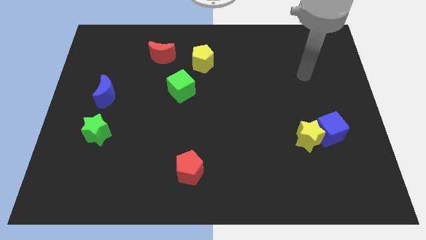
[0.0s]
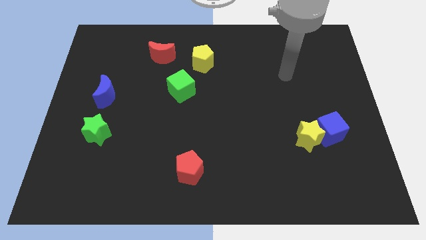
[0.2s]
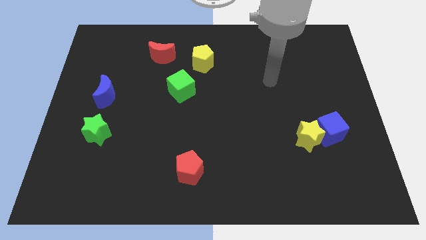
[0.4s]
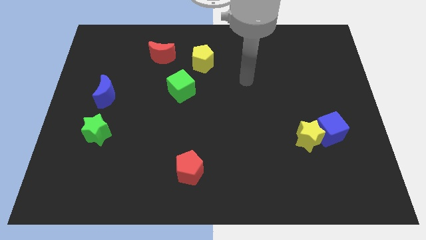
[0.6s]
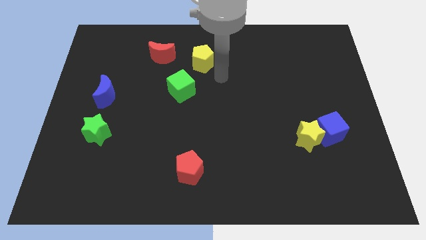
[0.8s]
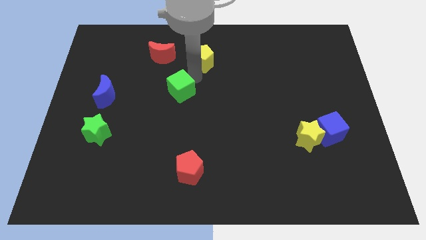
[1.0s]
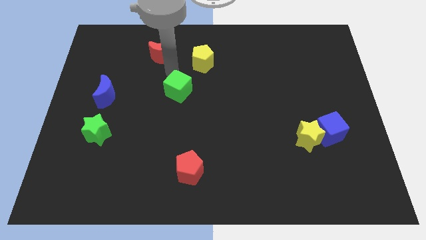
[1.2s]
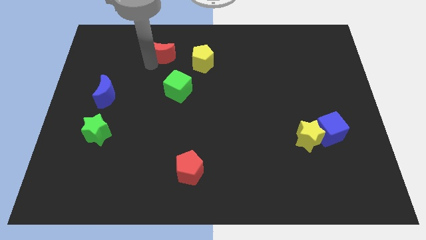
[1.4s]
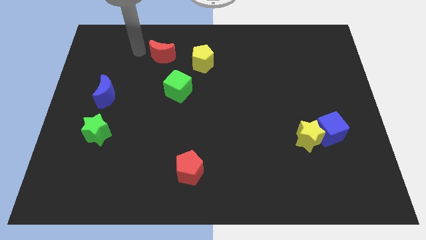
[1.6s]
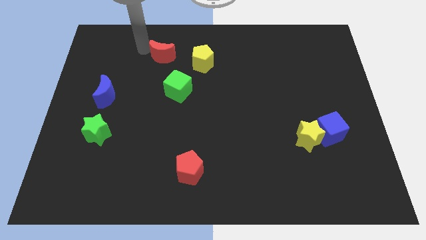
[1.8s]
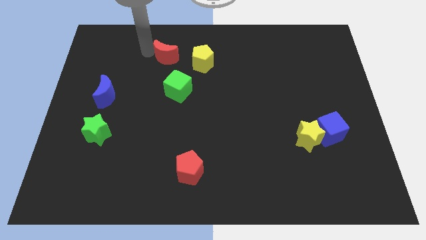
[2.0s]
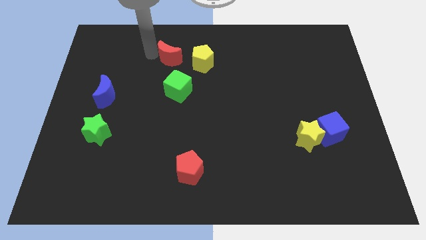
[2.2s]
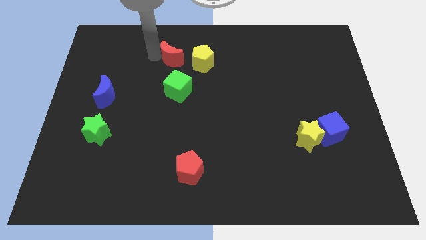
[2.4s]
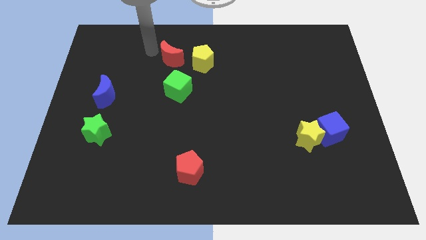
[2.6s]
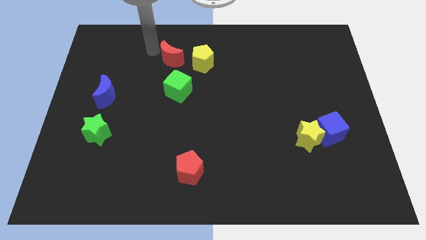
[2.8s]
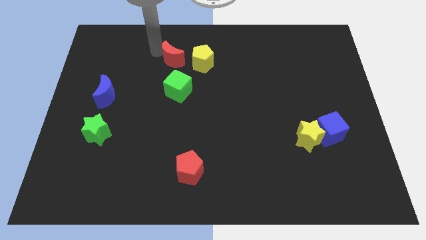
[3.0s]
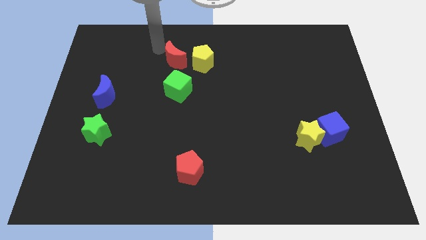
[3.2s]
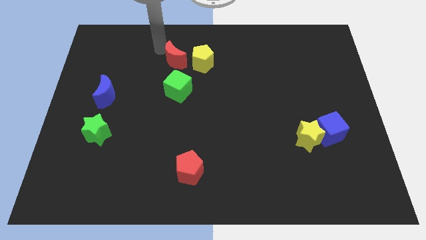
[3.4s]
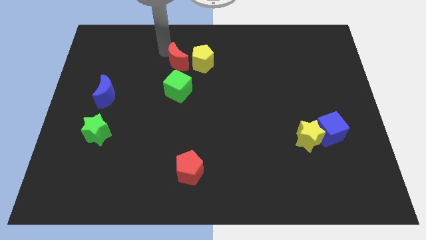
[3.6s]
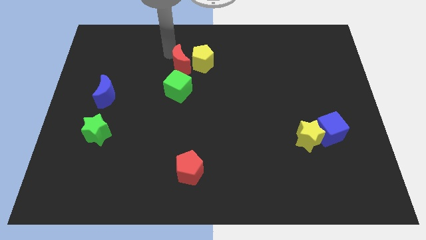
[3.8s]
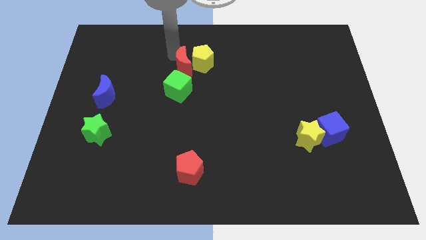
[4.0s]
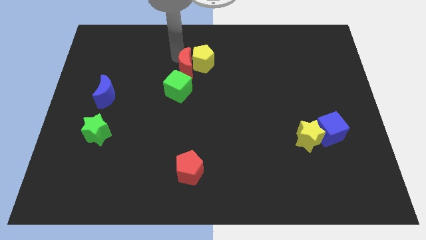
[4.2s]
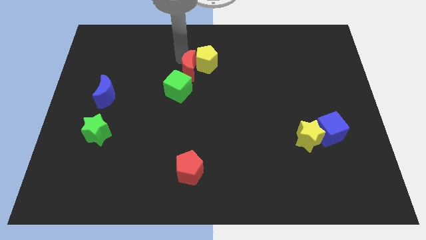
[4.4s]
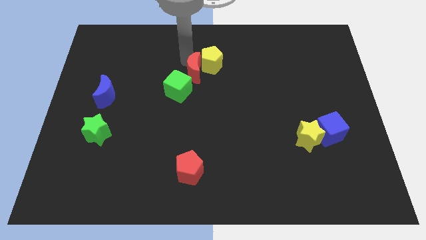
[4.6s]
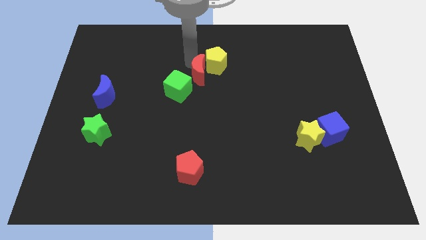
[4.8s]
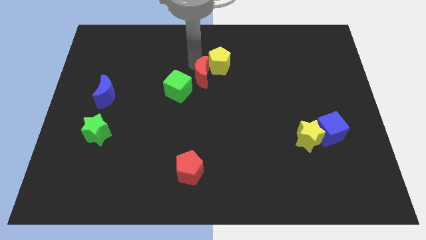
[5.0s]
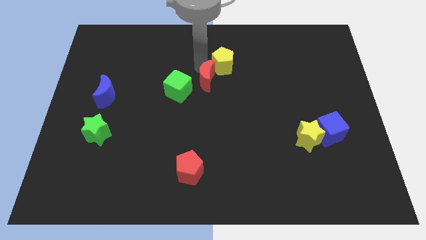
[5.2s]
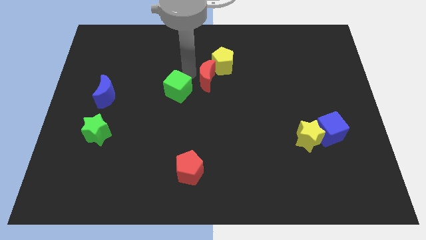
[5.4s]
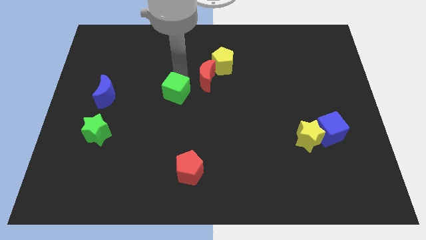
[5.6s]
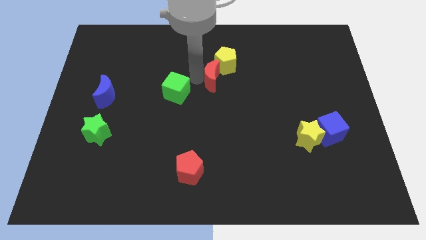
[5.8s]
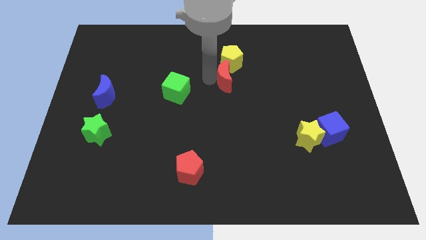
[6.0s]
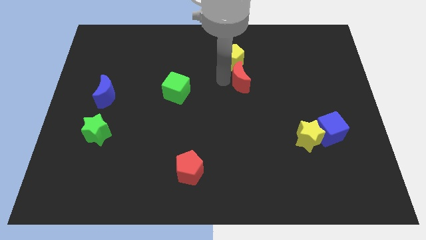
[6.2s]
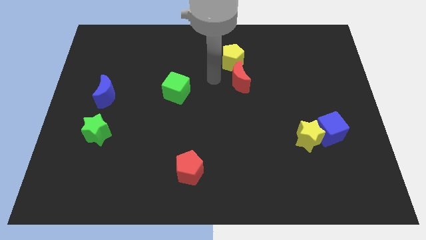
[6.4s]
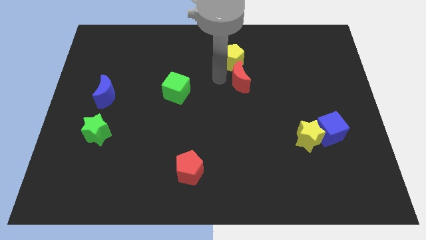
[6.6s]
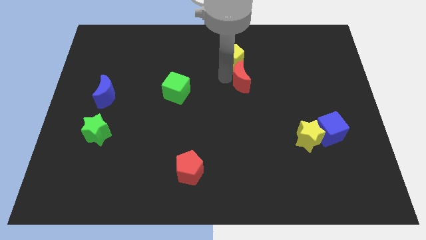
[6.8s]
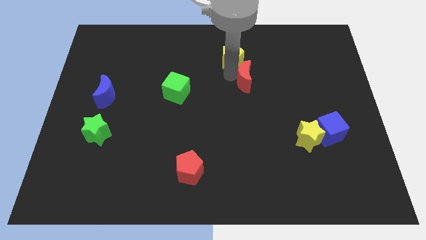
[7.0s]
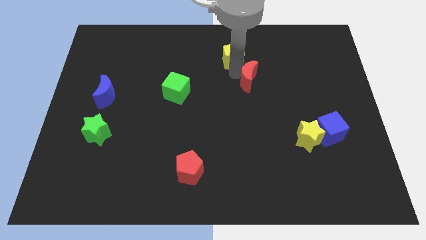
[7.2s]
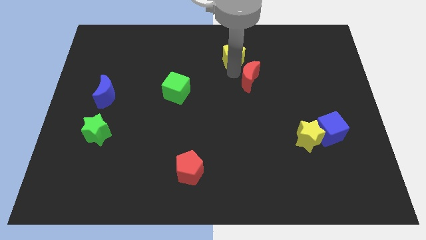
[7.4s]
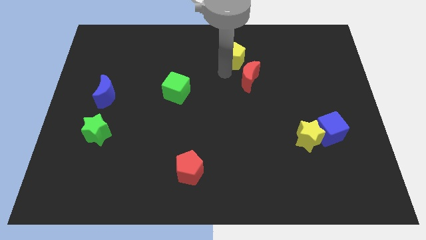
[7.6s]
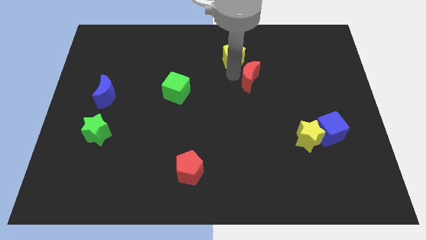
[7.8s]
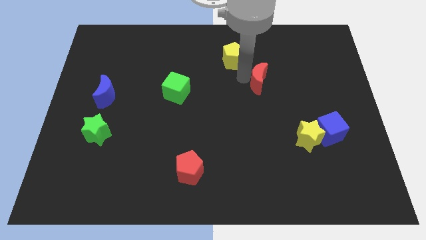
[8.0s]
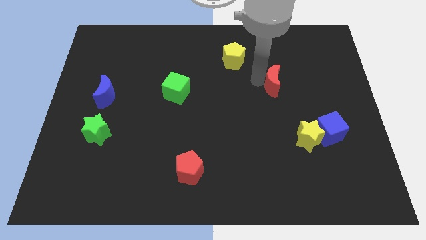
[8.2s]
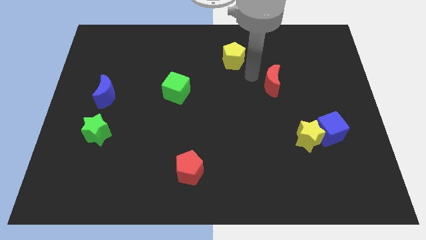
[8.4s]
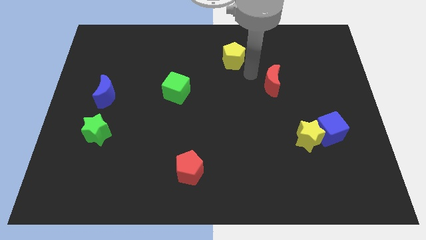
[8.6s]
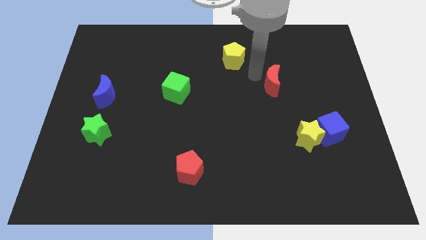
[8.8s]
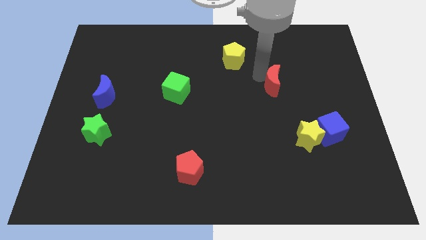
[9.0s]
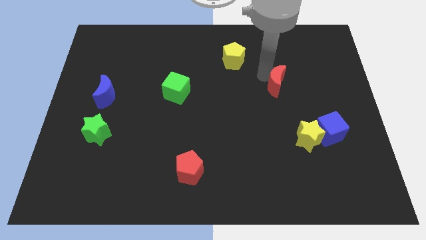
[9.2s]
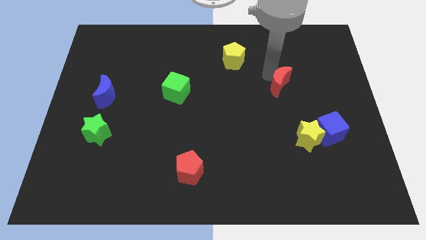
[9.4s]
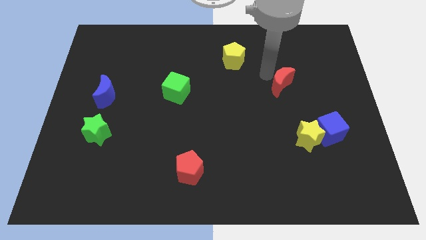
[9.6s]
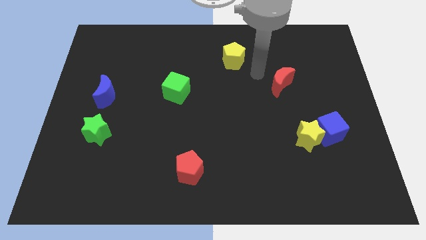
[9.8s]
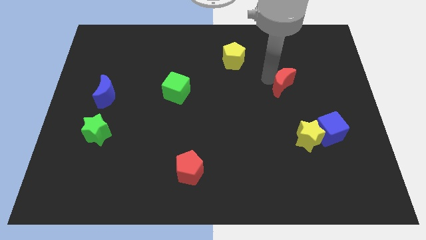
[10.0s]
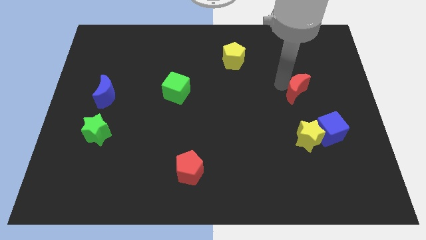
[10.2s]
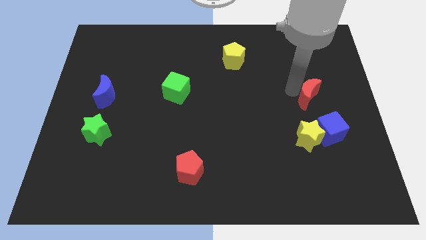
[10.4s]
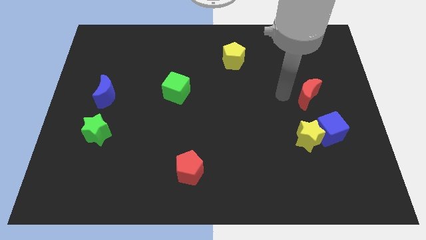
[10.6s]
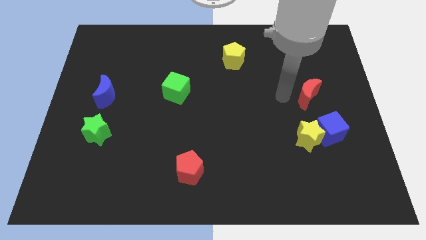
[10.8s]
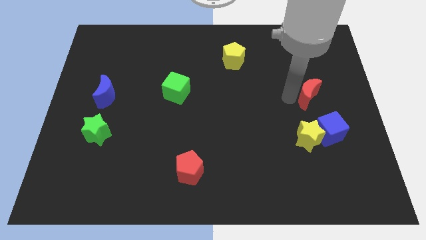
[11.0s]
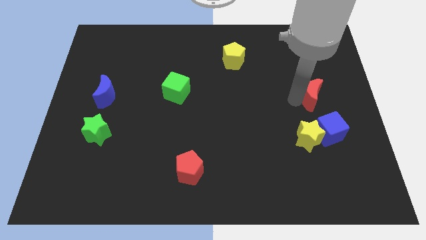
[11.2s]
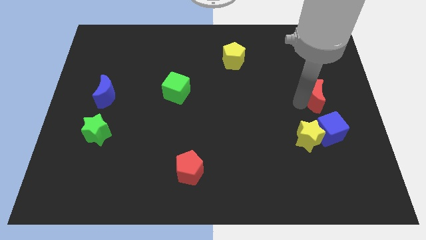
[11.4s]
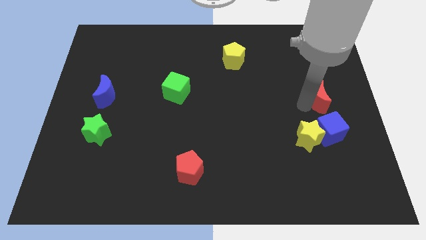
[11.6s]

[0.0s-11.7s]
move the red moon to the center right

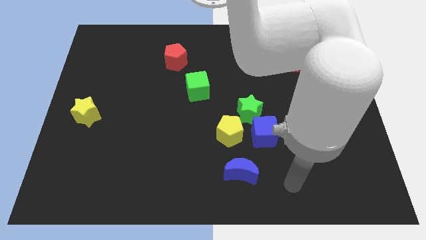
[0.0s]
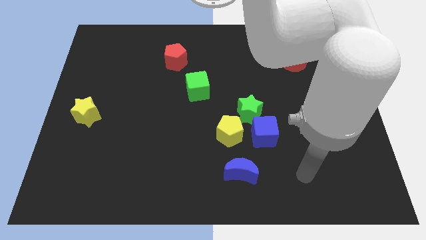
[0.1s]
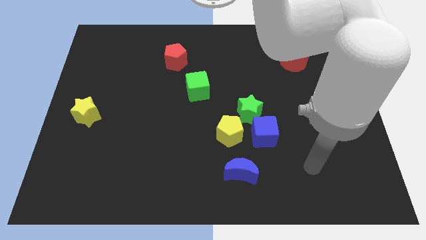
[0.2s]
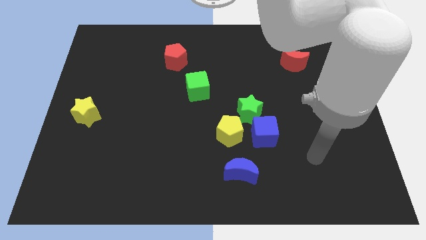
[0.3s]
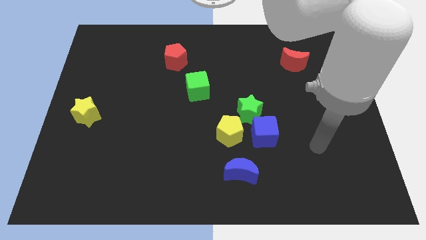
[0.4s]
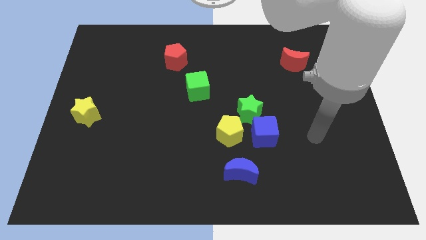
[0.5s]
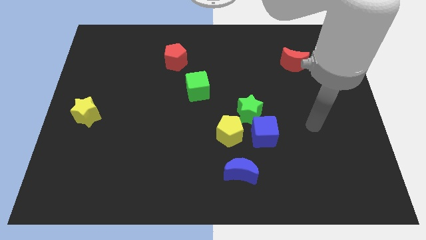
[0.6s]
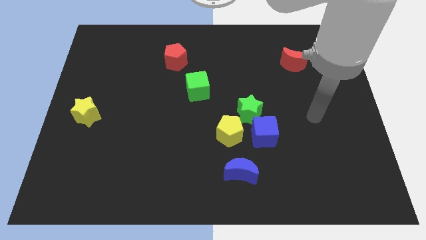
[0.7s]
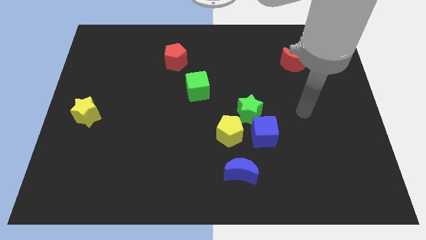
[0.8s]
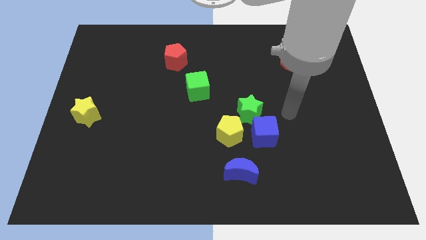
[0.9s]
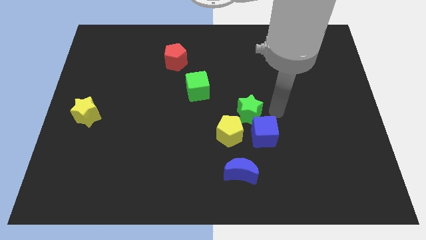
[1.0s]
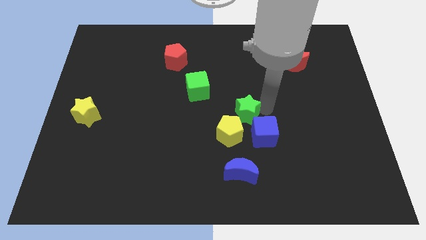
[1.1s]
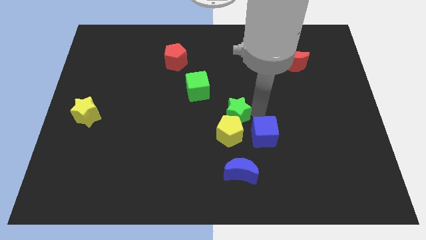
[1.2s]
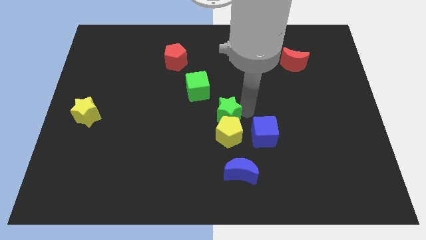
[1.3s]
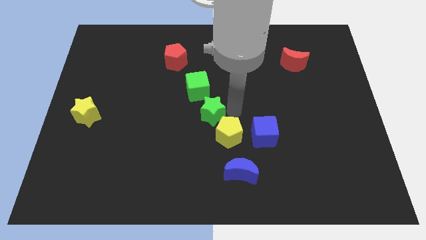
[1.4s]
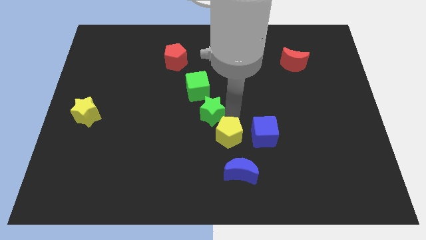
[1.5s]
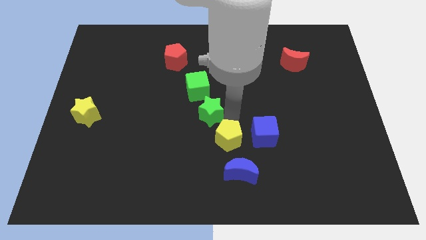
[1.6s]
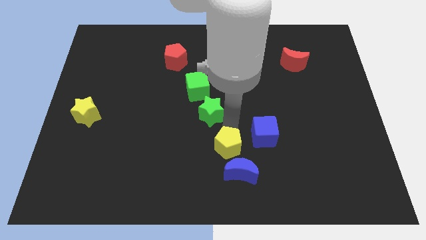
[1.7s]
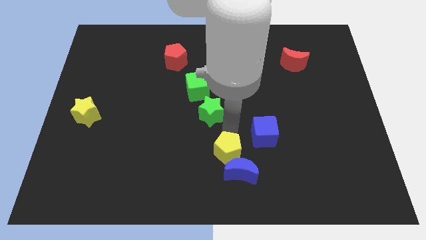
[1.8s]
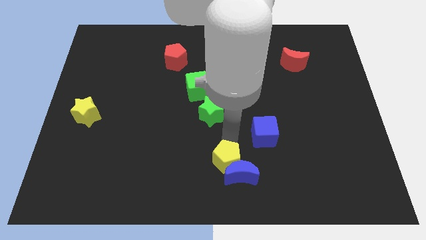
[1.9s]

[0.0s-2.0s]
push the yellow pentagon to the bottom side
